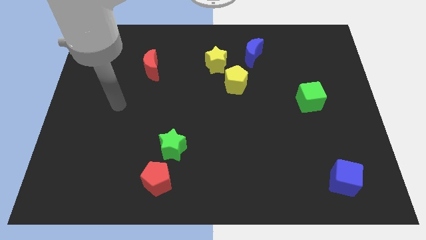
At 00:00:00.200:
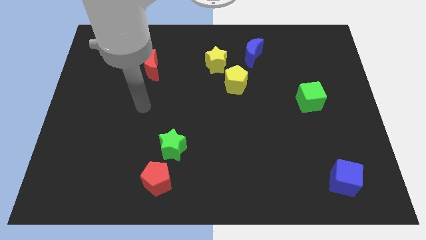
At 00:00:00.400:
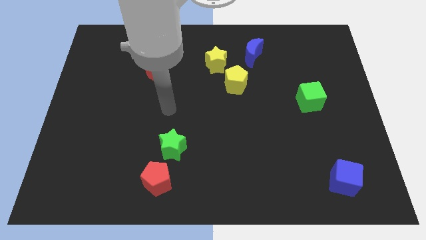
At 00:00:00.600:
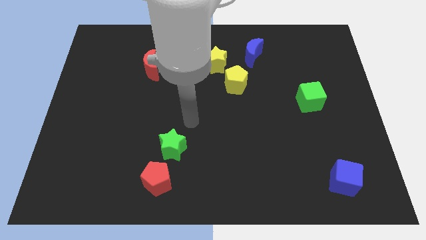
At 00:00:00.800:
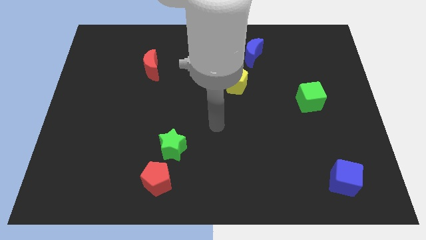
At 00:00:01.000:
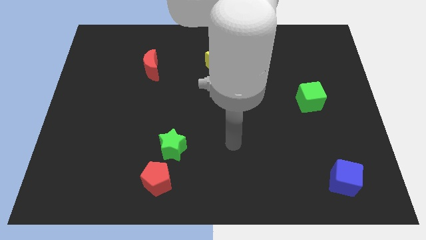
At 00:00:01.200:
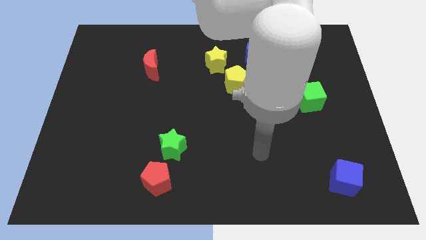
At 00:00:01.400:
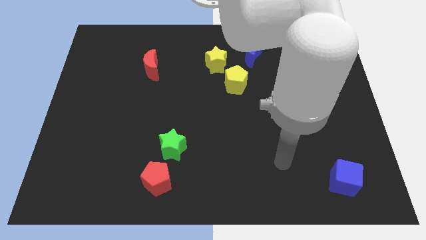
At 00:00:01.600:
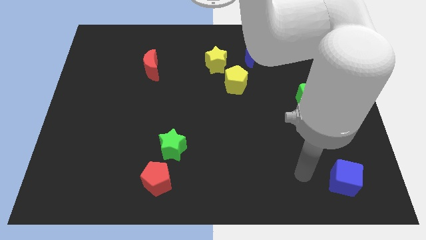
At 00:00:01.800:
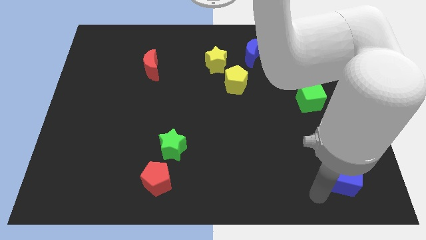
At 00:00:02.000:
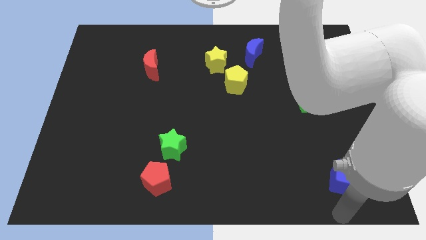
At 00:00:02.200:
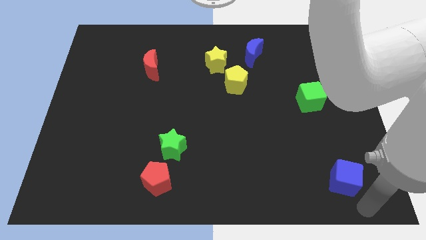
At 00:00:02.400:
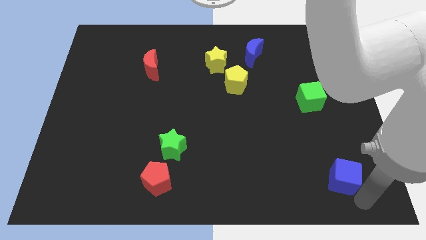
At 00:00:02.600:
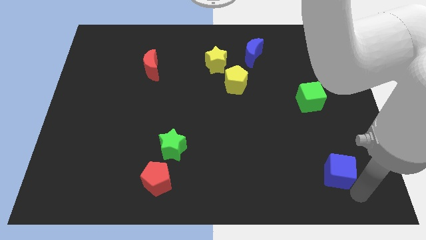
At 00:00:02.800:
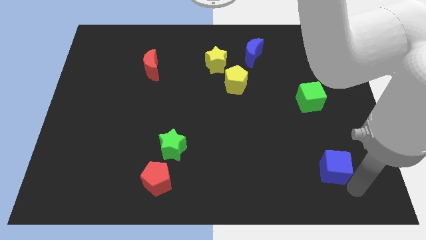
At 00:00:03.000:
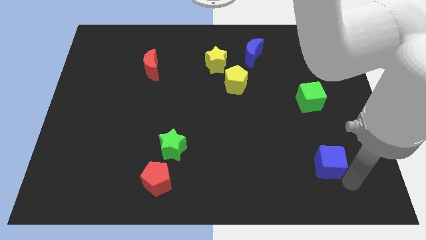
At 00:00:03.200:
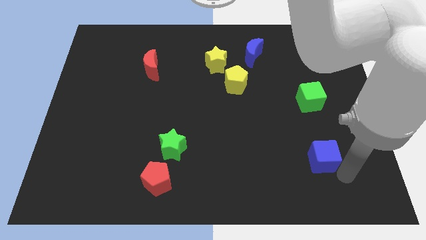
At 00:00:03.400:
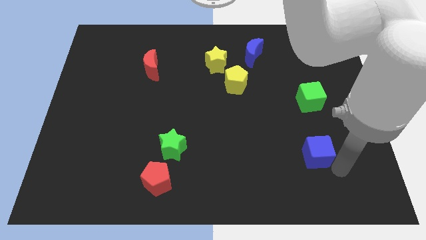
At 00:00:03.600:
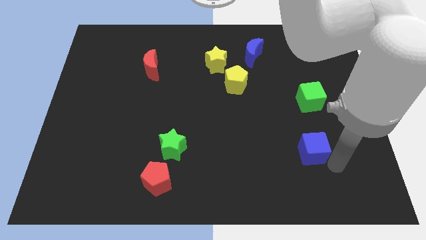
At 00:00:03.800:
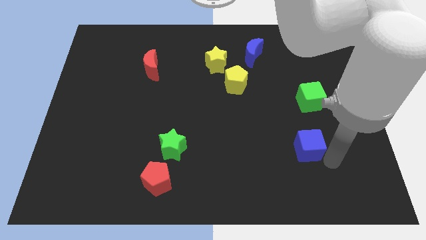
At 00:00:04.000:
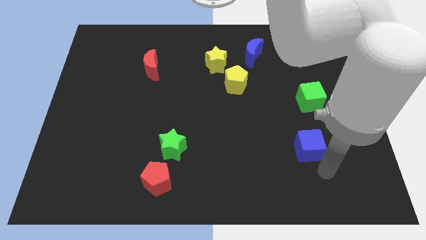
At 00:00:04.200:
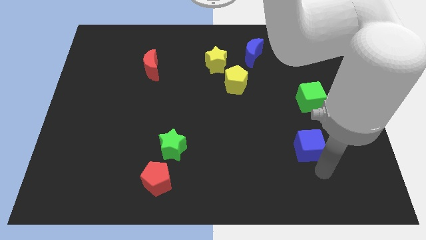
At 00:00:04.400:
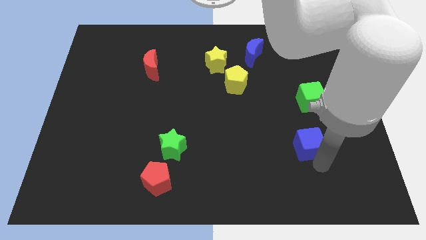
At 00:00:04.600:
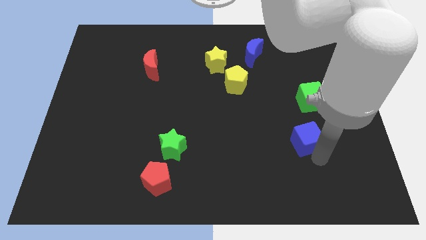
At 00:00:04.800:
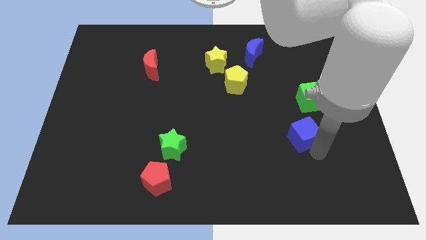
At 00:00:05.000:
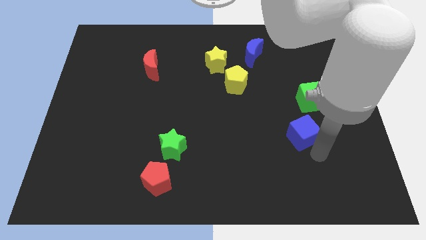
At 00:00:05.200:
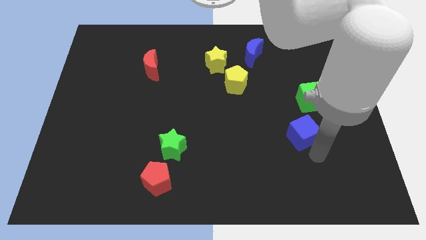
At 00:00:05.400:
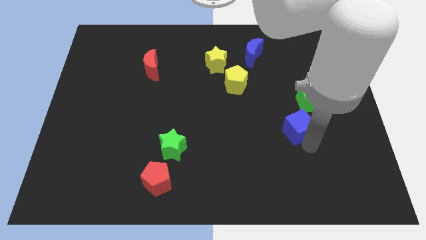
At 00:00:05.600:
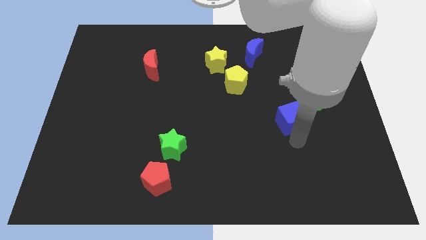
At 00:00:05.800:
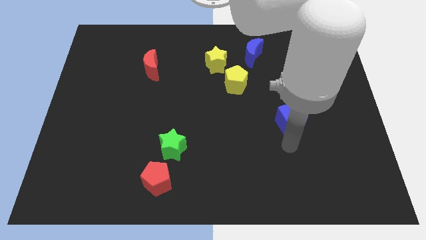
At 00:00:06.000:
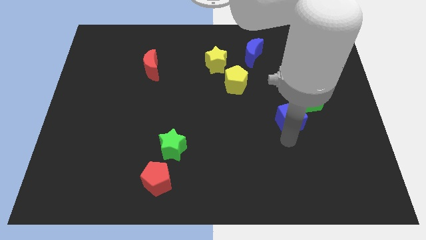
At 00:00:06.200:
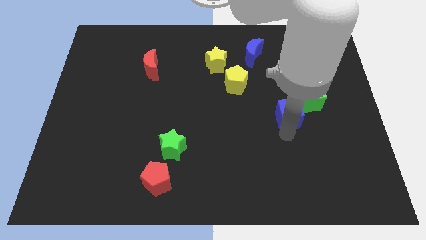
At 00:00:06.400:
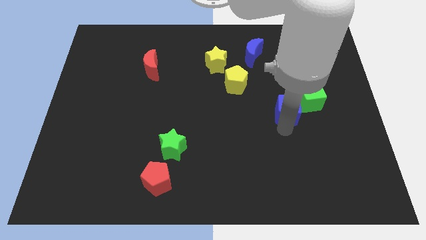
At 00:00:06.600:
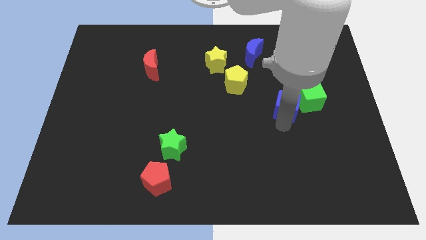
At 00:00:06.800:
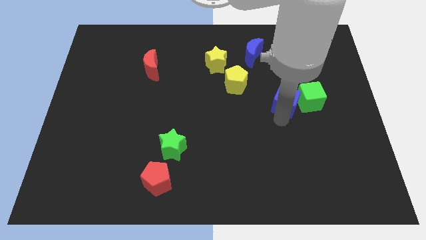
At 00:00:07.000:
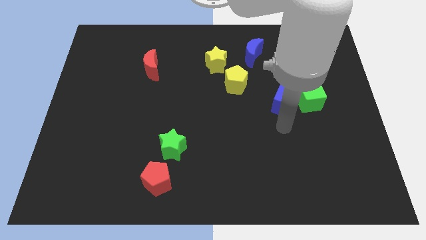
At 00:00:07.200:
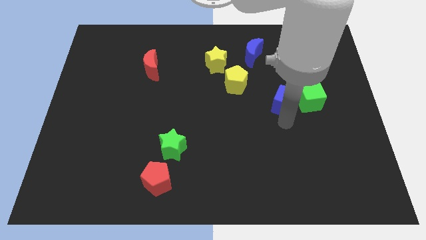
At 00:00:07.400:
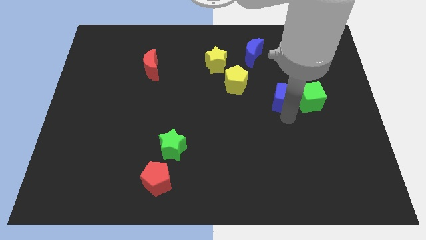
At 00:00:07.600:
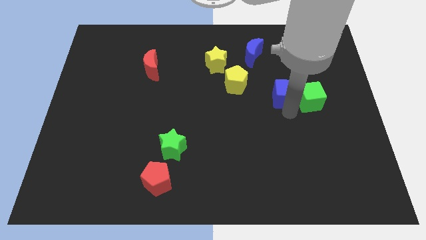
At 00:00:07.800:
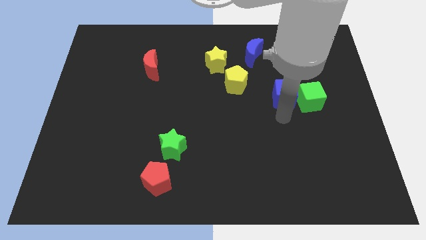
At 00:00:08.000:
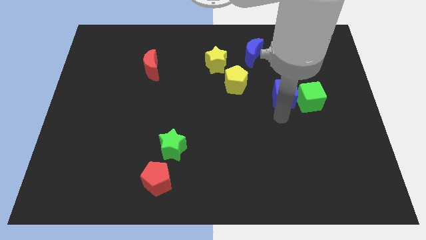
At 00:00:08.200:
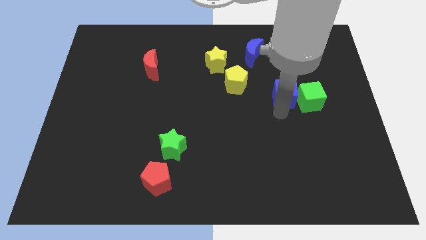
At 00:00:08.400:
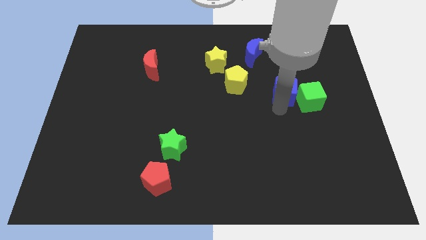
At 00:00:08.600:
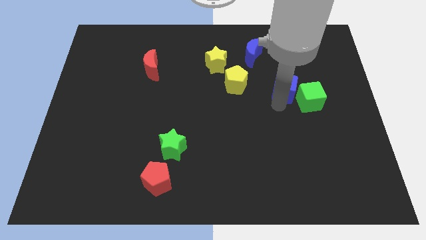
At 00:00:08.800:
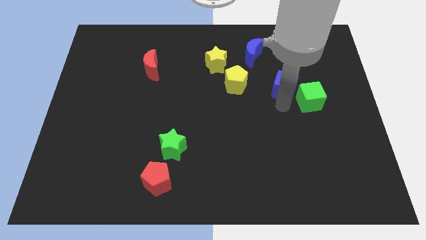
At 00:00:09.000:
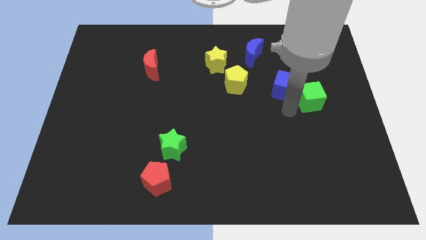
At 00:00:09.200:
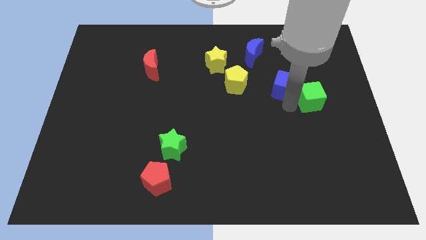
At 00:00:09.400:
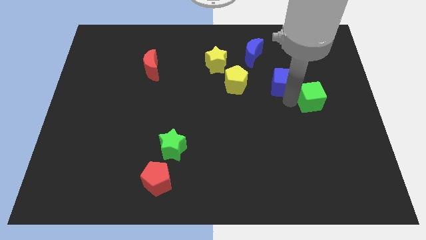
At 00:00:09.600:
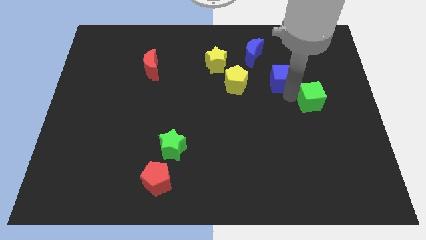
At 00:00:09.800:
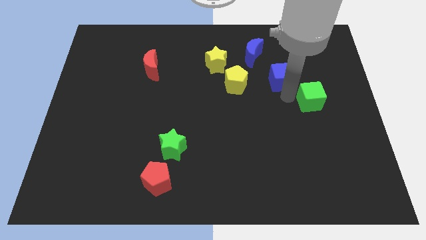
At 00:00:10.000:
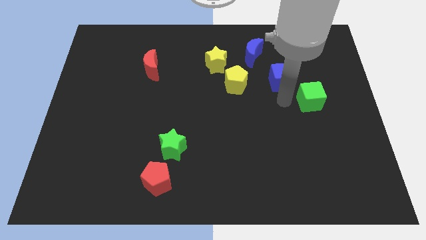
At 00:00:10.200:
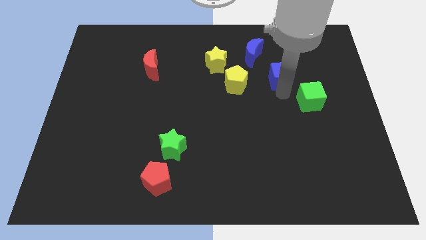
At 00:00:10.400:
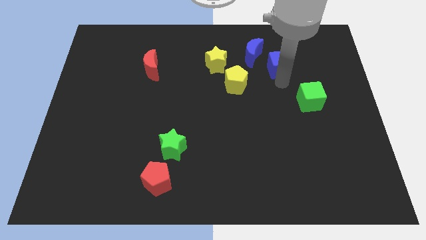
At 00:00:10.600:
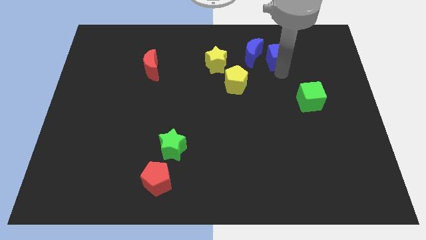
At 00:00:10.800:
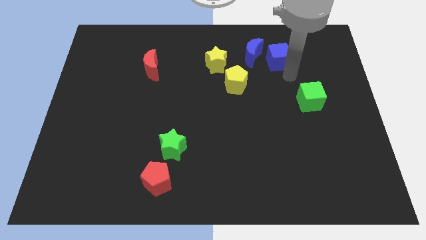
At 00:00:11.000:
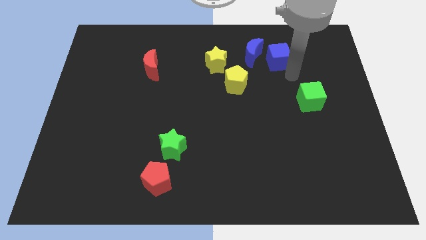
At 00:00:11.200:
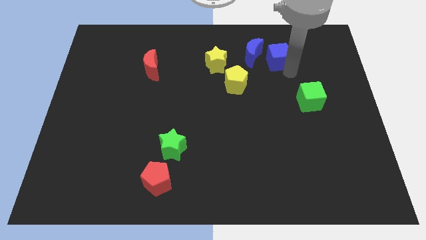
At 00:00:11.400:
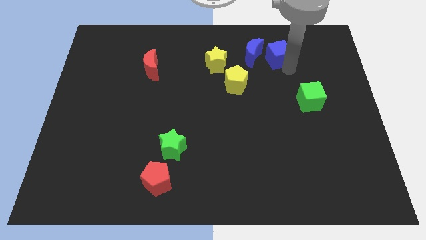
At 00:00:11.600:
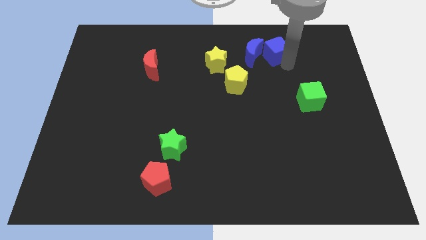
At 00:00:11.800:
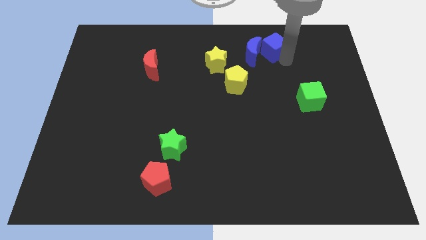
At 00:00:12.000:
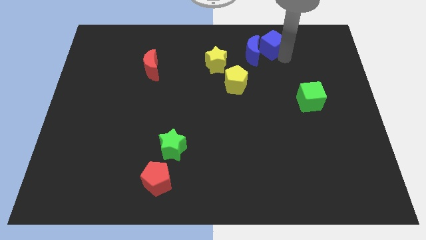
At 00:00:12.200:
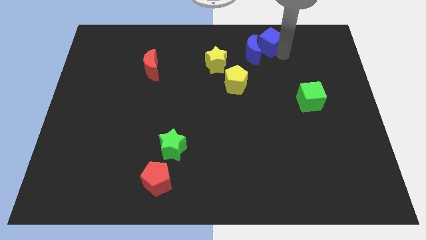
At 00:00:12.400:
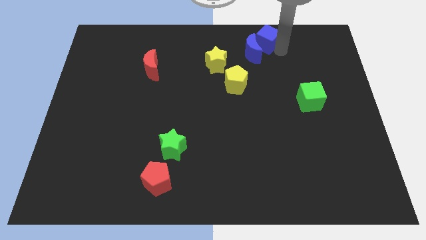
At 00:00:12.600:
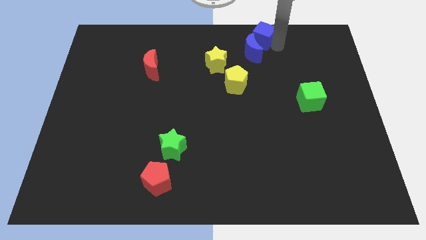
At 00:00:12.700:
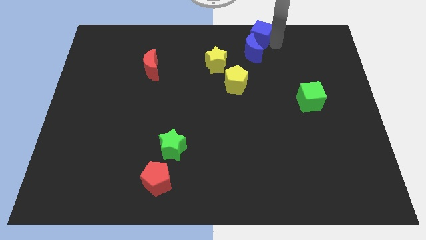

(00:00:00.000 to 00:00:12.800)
put the blue cube to the top

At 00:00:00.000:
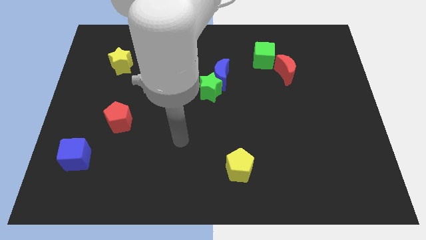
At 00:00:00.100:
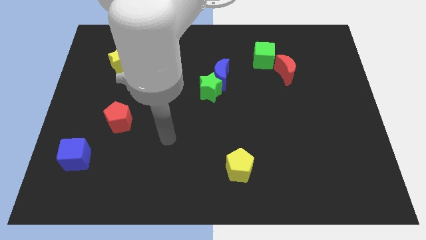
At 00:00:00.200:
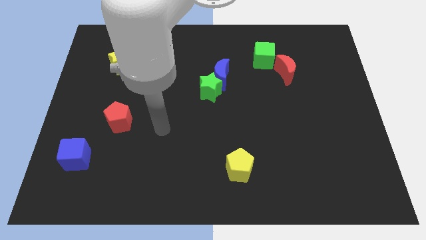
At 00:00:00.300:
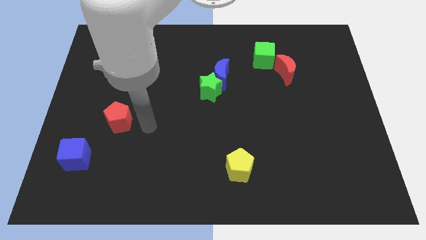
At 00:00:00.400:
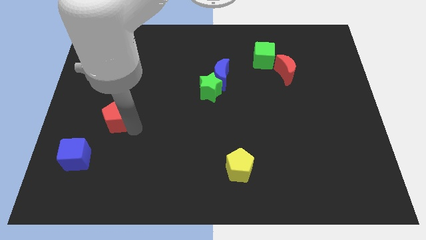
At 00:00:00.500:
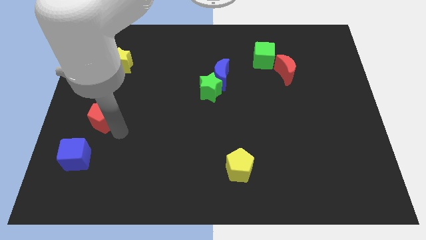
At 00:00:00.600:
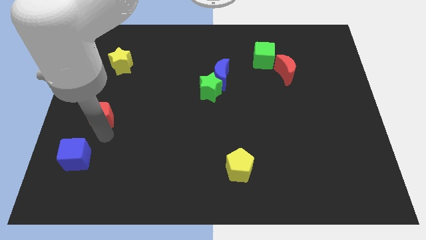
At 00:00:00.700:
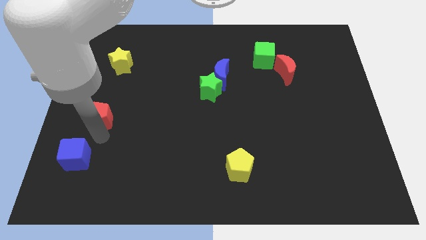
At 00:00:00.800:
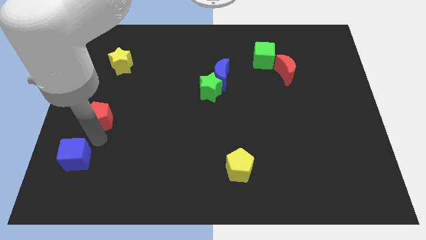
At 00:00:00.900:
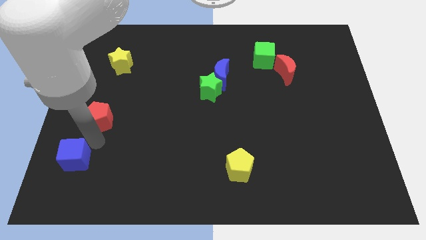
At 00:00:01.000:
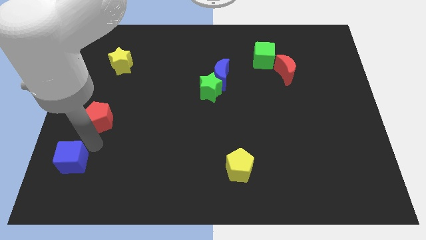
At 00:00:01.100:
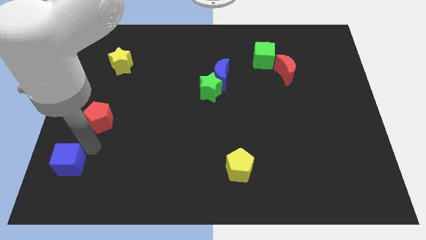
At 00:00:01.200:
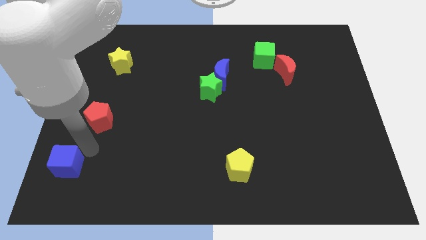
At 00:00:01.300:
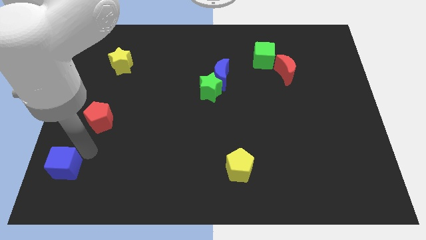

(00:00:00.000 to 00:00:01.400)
push the blue cube to the bottom left corner
